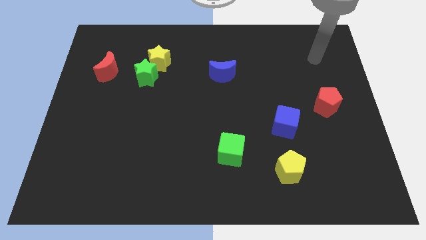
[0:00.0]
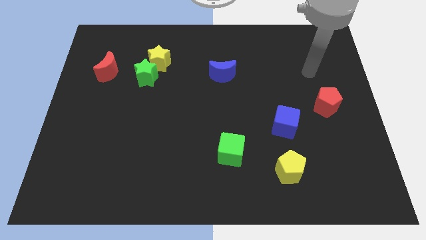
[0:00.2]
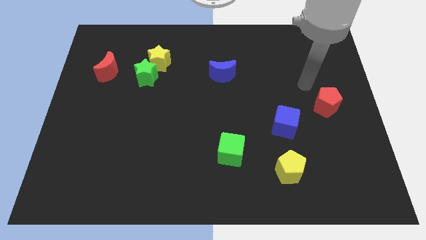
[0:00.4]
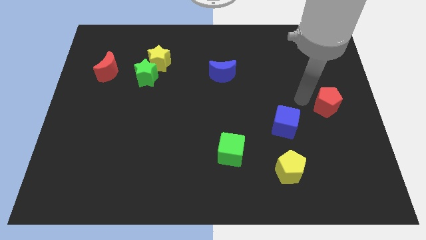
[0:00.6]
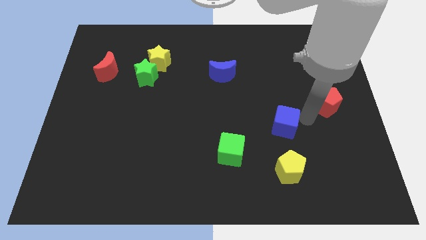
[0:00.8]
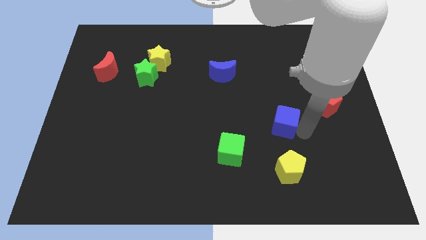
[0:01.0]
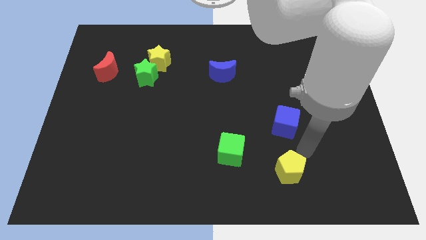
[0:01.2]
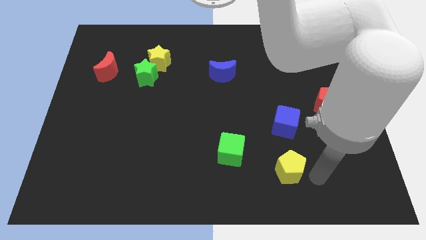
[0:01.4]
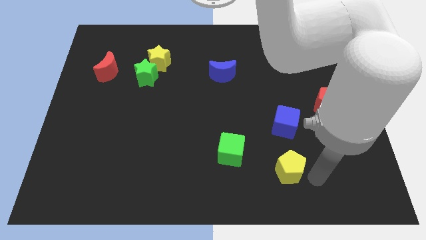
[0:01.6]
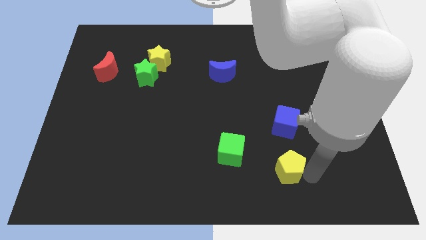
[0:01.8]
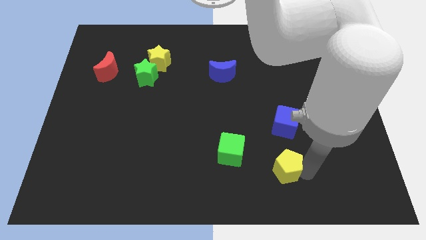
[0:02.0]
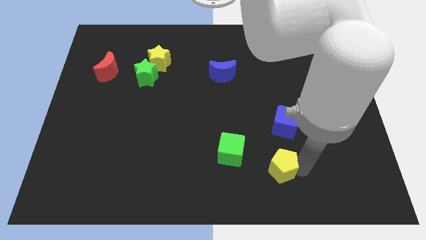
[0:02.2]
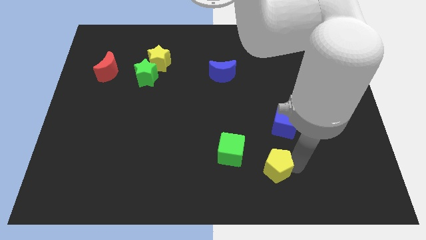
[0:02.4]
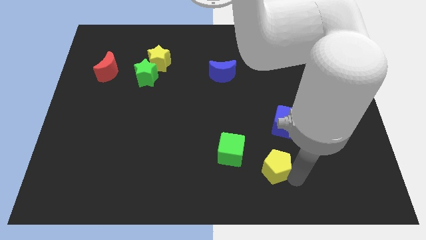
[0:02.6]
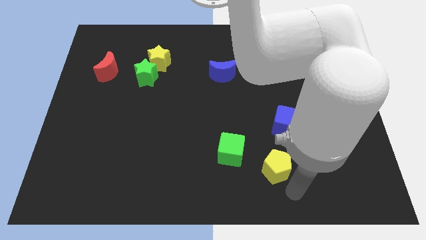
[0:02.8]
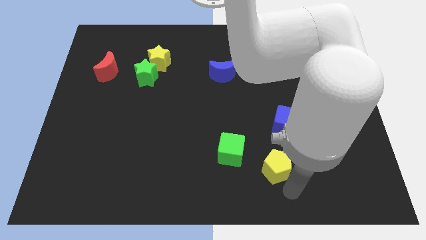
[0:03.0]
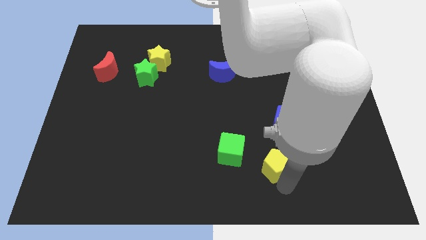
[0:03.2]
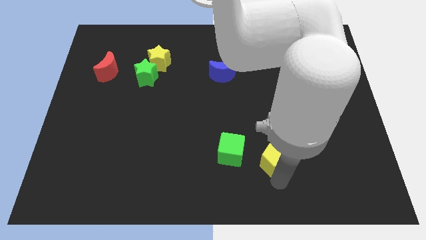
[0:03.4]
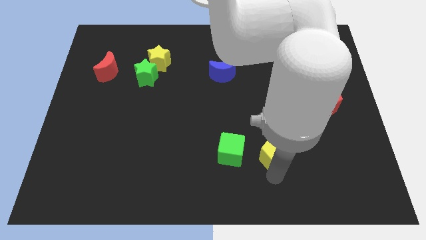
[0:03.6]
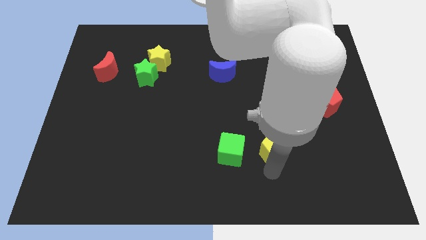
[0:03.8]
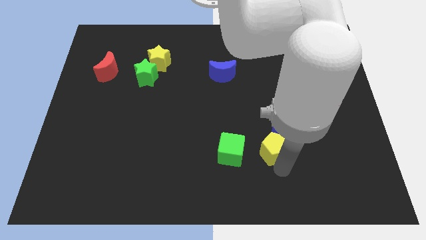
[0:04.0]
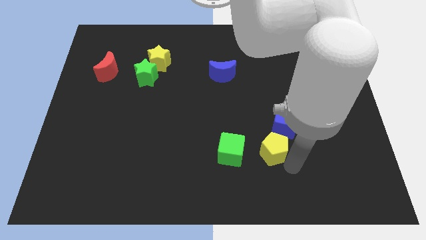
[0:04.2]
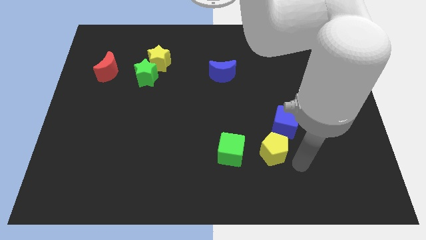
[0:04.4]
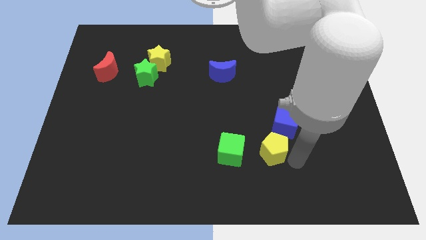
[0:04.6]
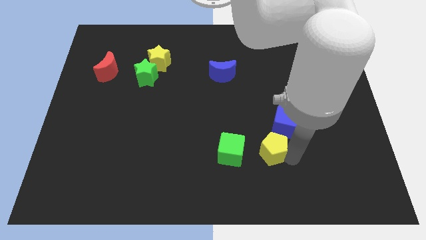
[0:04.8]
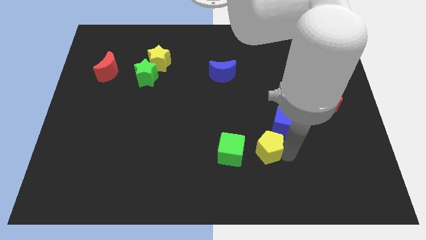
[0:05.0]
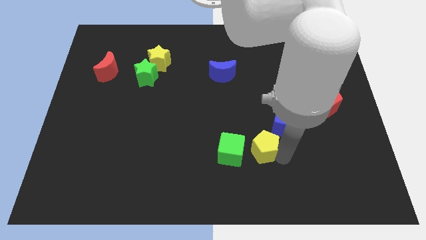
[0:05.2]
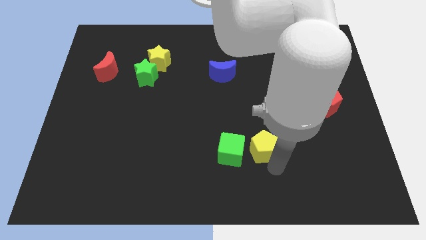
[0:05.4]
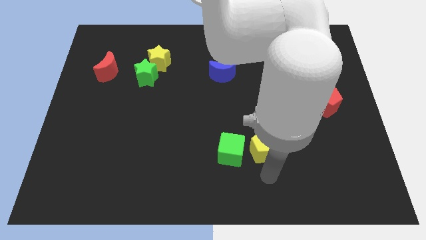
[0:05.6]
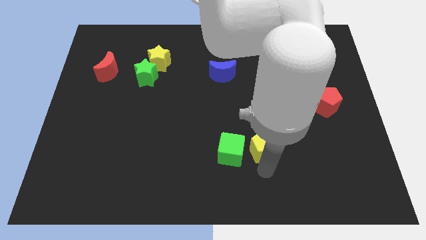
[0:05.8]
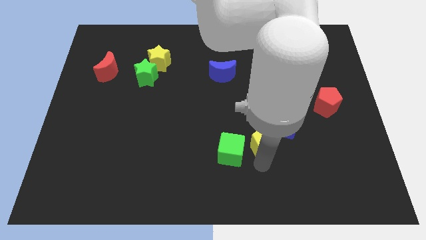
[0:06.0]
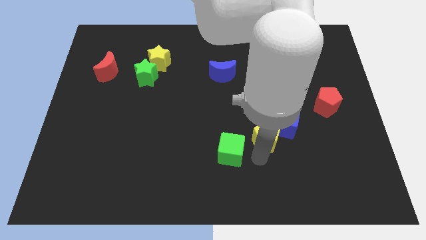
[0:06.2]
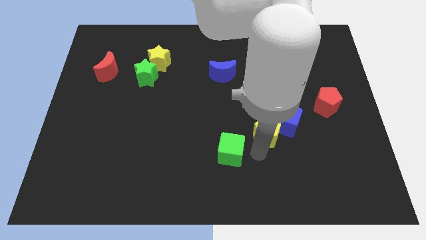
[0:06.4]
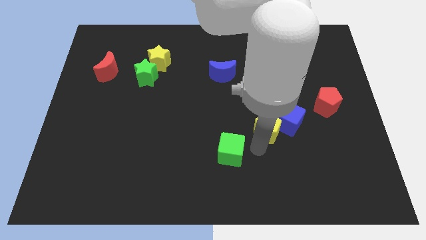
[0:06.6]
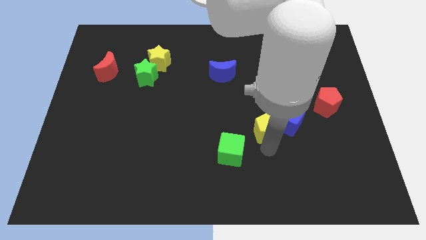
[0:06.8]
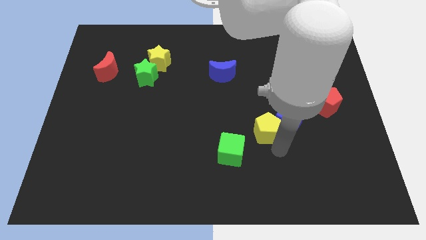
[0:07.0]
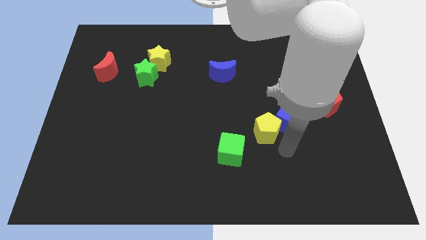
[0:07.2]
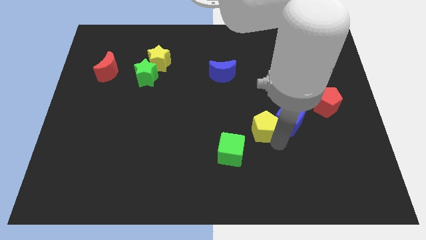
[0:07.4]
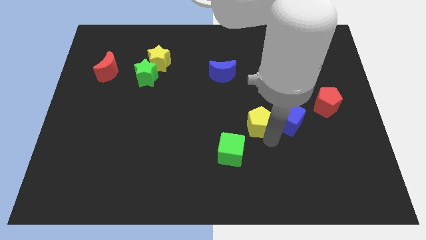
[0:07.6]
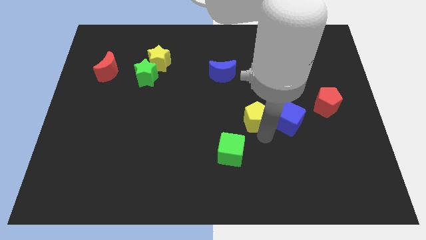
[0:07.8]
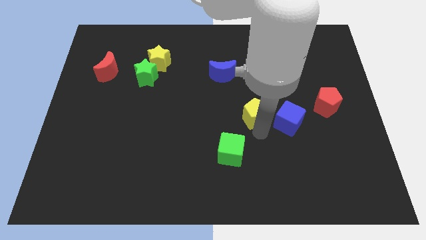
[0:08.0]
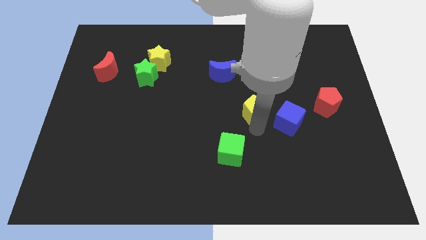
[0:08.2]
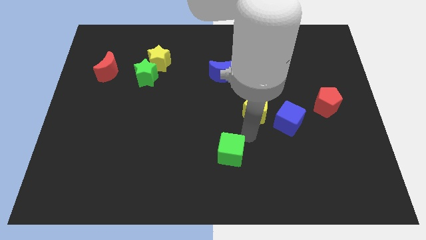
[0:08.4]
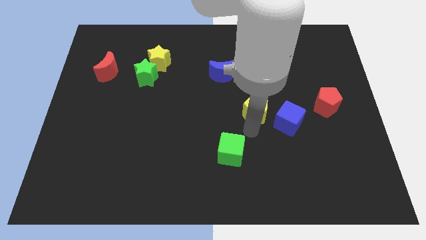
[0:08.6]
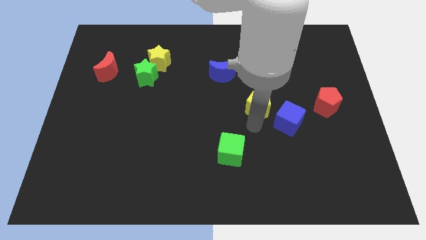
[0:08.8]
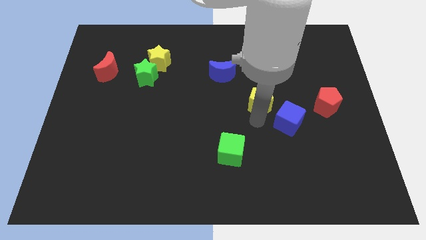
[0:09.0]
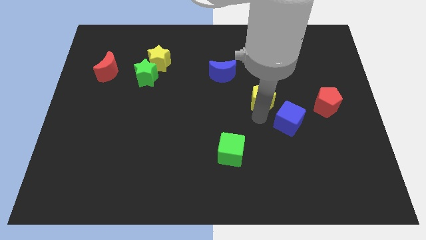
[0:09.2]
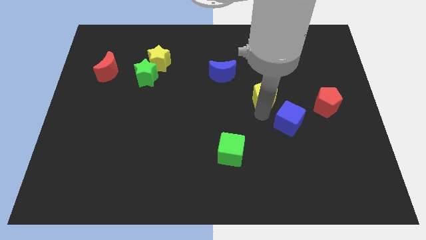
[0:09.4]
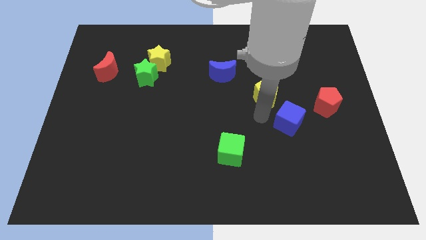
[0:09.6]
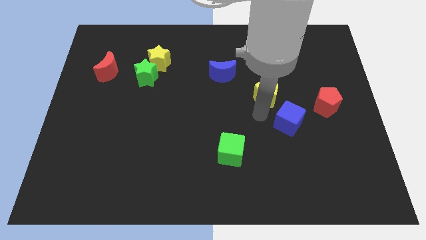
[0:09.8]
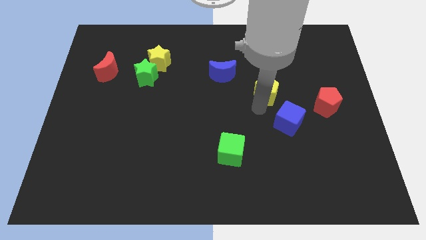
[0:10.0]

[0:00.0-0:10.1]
move the yellow pentagon upwards

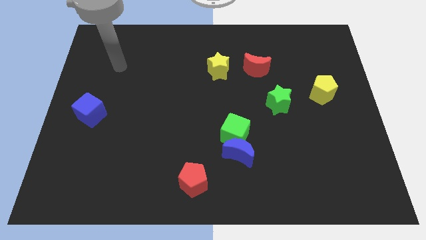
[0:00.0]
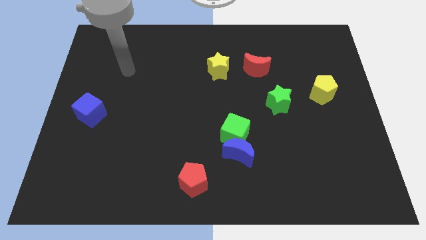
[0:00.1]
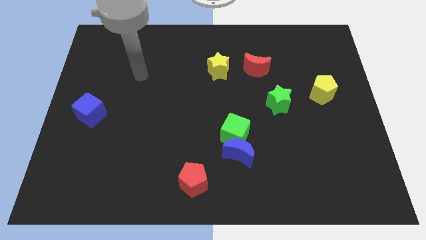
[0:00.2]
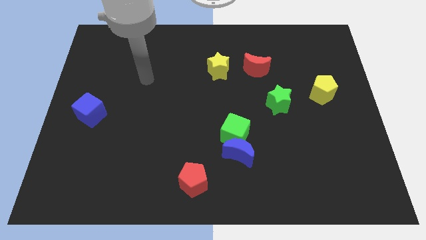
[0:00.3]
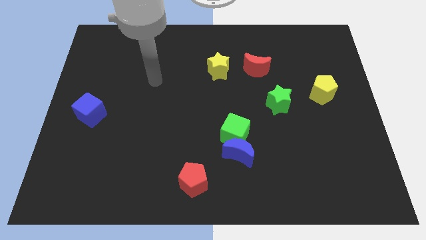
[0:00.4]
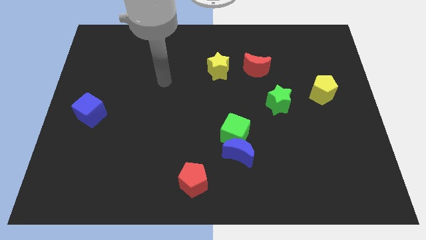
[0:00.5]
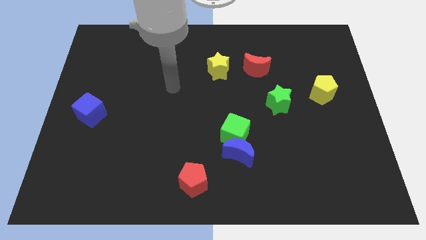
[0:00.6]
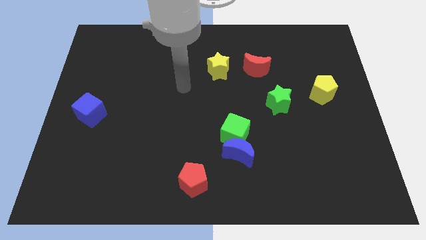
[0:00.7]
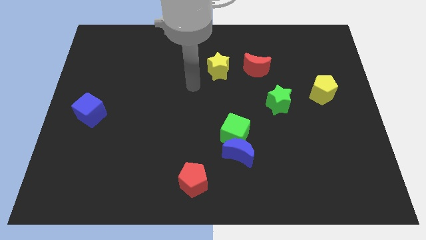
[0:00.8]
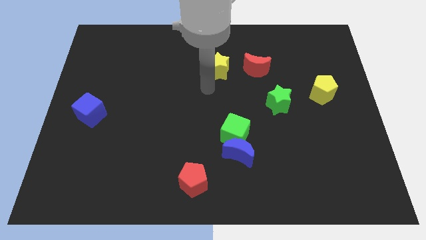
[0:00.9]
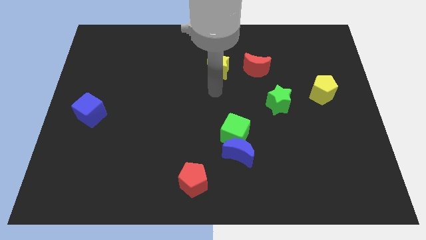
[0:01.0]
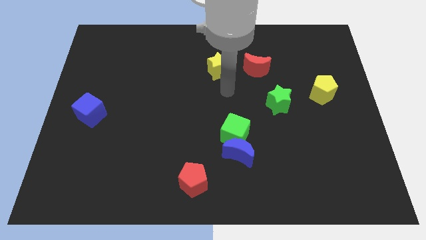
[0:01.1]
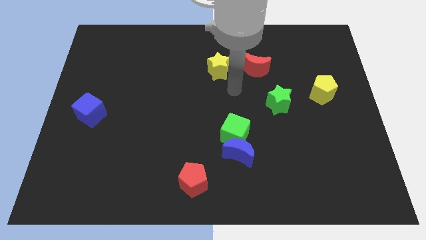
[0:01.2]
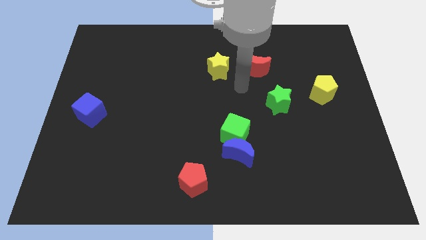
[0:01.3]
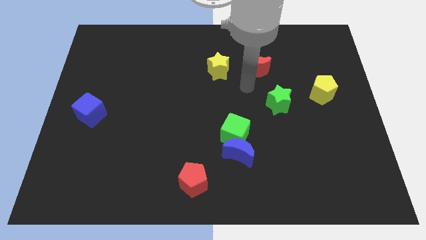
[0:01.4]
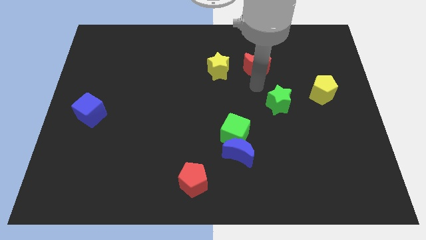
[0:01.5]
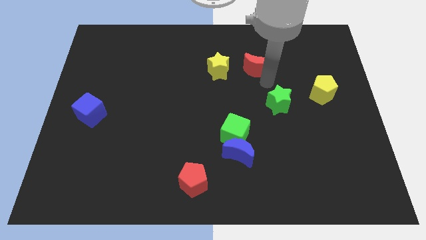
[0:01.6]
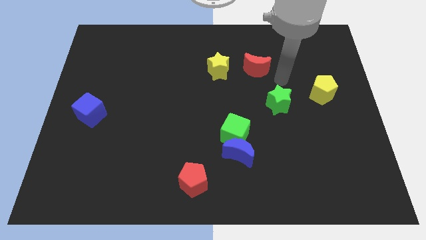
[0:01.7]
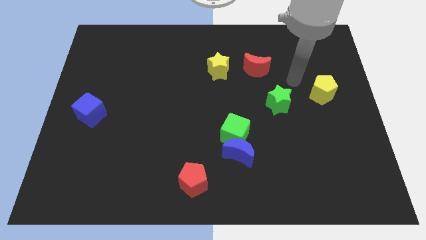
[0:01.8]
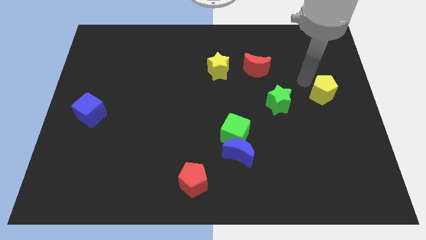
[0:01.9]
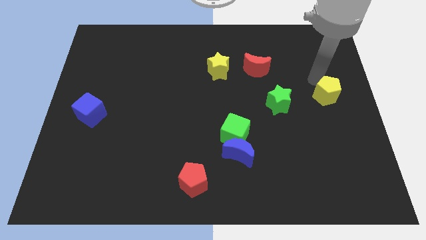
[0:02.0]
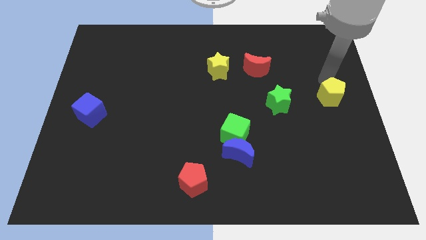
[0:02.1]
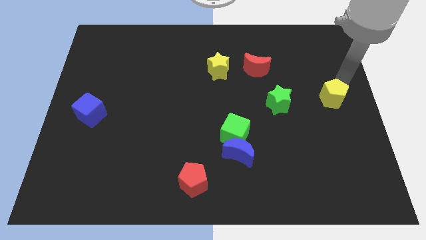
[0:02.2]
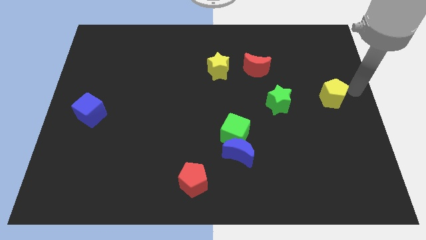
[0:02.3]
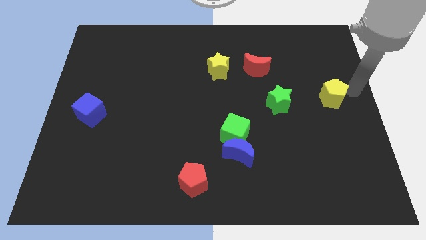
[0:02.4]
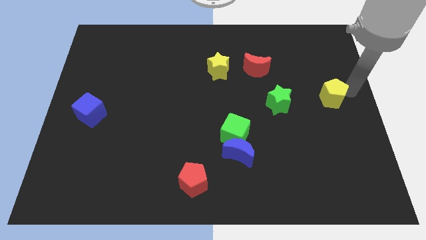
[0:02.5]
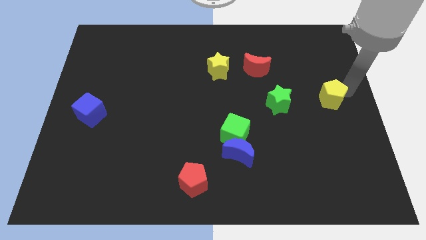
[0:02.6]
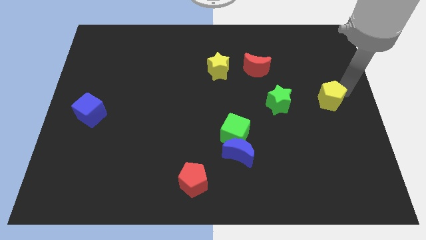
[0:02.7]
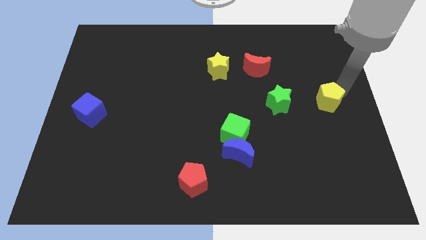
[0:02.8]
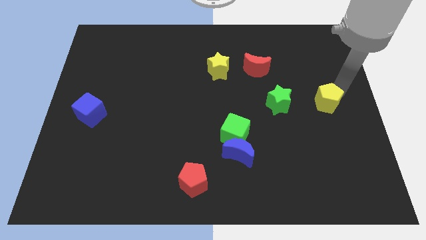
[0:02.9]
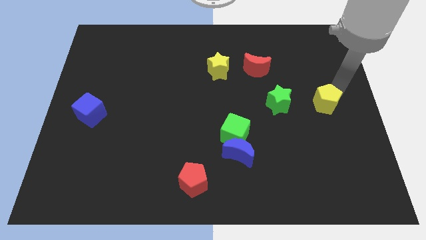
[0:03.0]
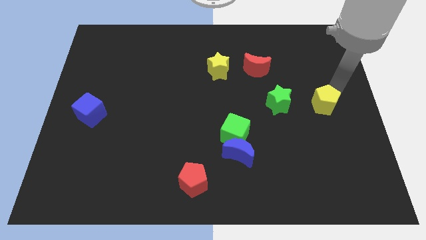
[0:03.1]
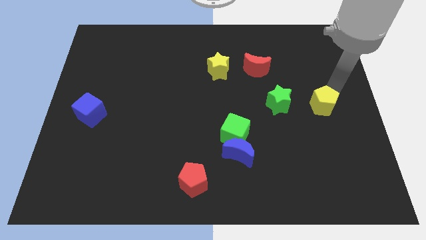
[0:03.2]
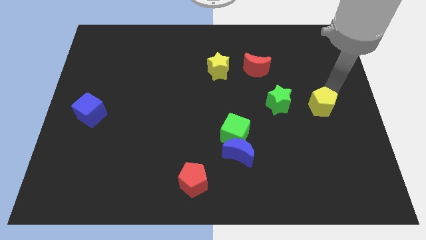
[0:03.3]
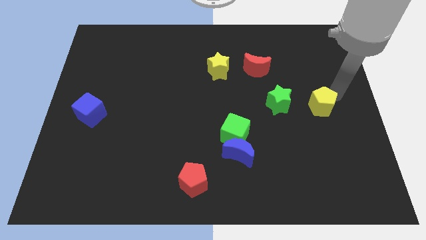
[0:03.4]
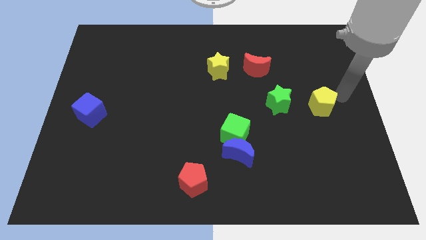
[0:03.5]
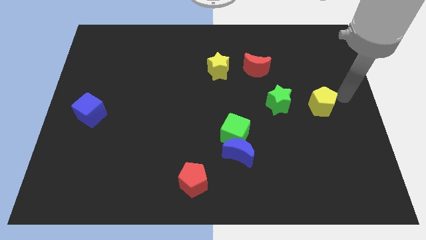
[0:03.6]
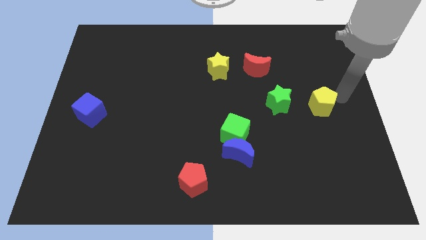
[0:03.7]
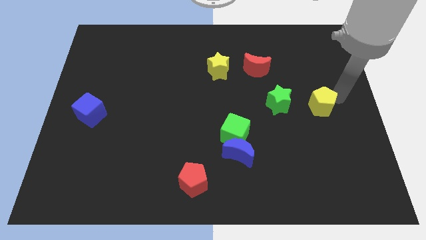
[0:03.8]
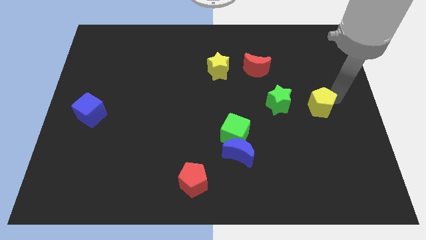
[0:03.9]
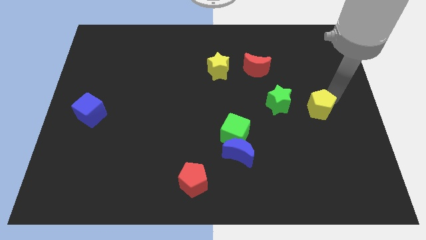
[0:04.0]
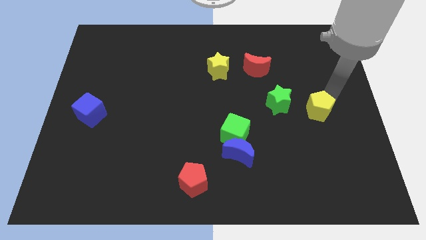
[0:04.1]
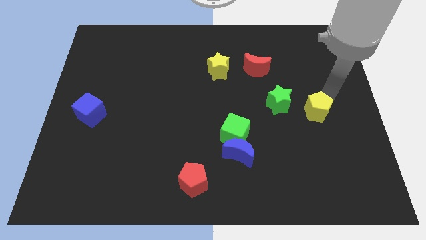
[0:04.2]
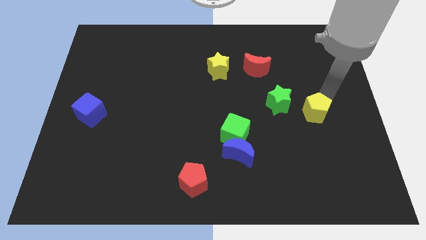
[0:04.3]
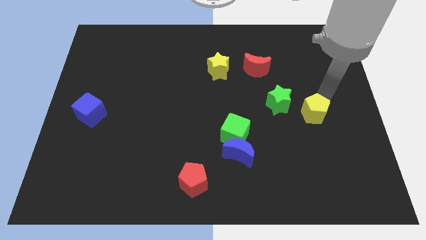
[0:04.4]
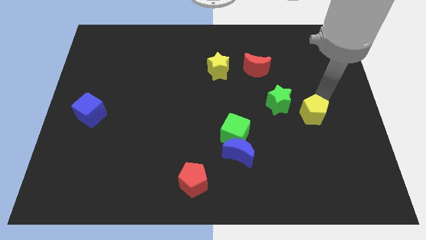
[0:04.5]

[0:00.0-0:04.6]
slightly move the yellow pentagon down and then to the left
